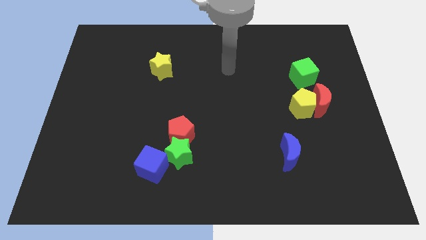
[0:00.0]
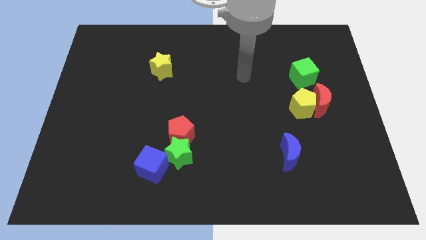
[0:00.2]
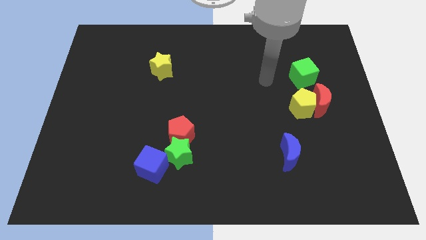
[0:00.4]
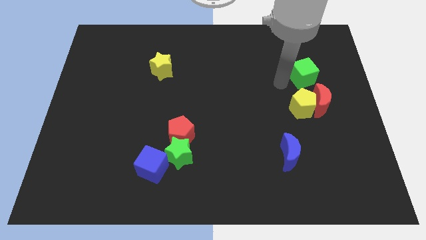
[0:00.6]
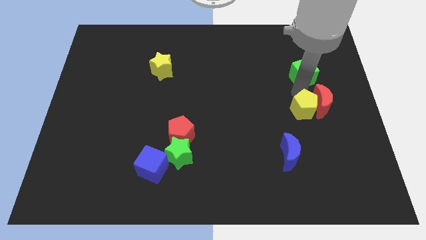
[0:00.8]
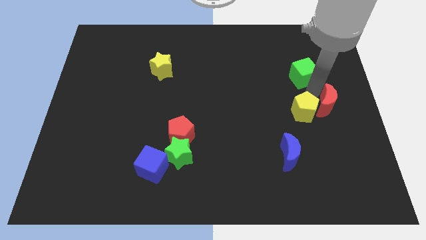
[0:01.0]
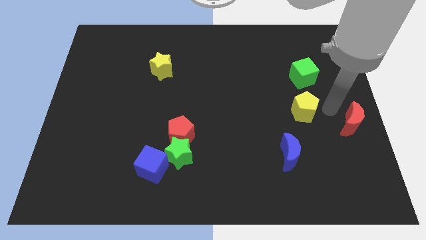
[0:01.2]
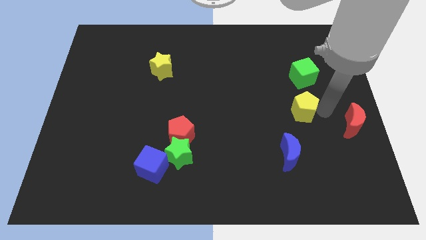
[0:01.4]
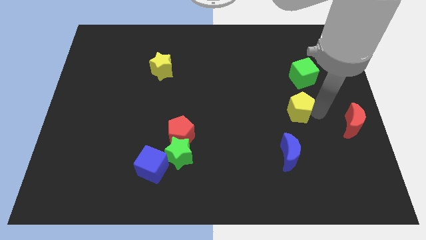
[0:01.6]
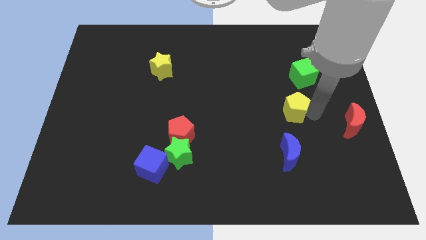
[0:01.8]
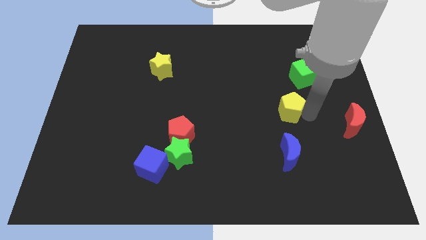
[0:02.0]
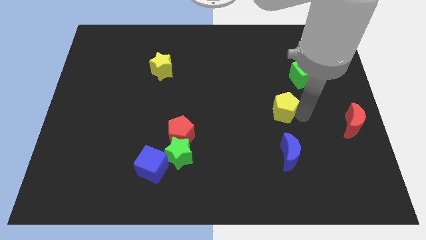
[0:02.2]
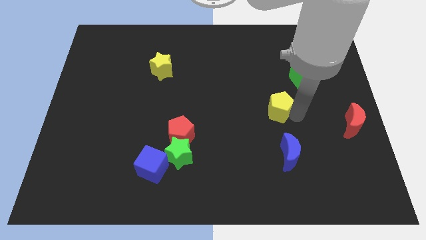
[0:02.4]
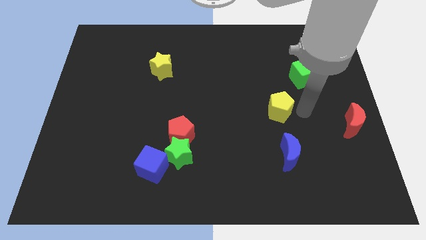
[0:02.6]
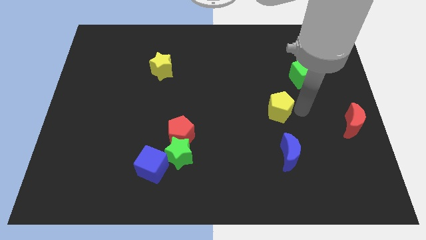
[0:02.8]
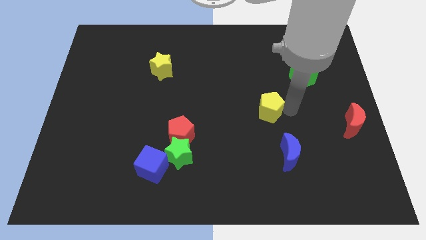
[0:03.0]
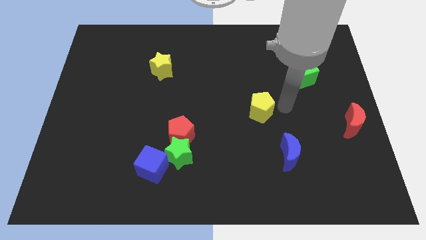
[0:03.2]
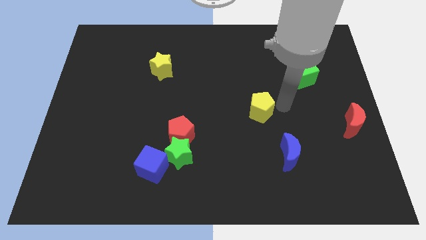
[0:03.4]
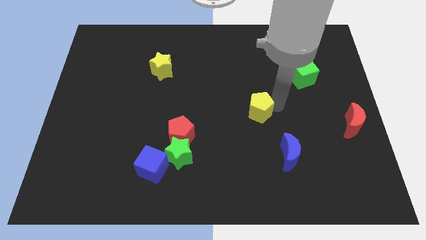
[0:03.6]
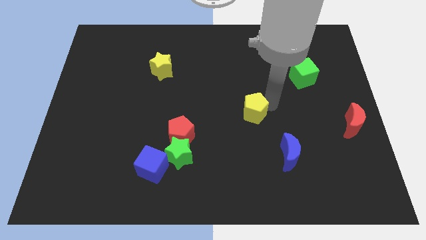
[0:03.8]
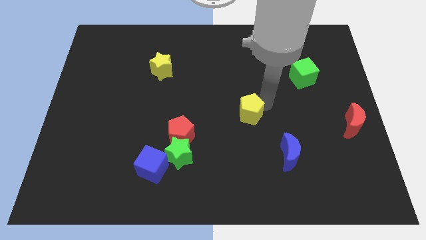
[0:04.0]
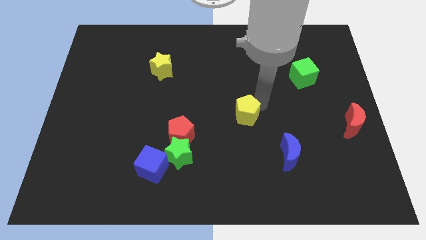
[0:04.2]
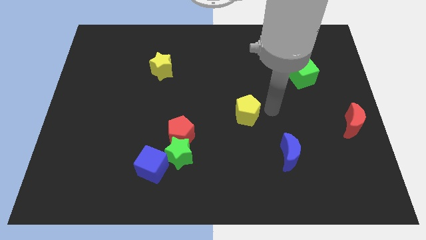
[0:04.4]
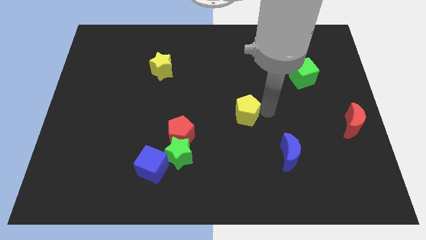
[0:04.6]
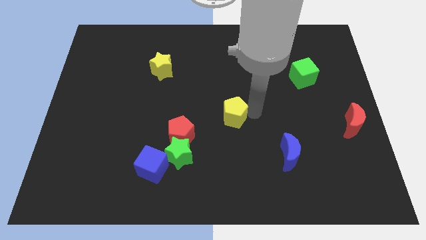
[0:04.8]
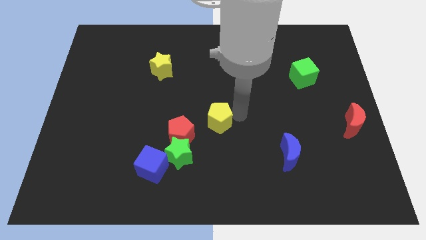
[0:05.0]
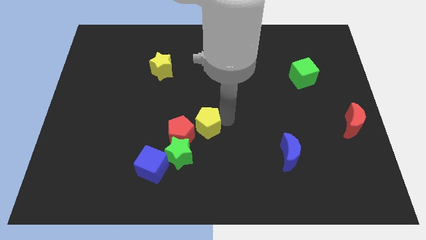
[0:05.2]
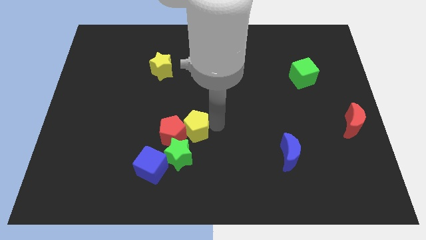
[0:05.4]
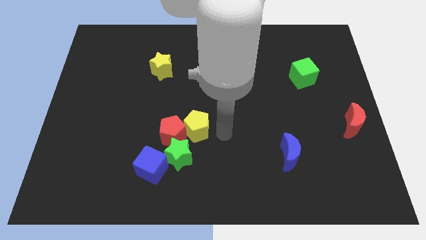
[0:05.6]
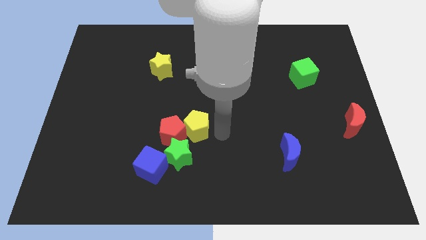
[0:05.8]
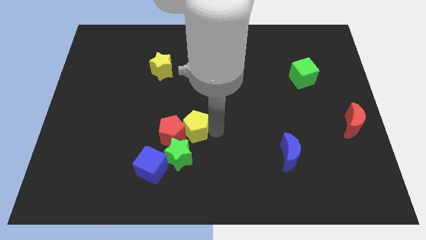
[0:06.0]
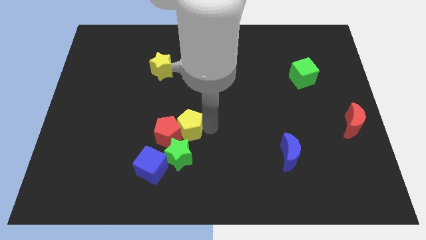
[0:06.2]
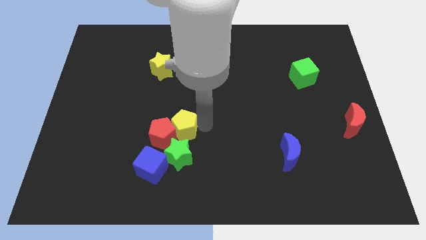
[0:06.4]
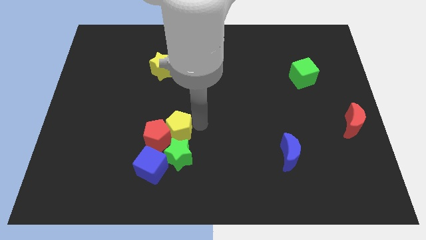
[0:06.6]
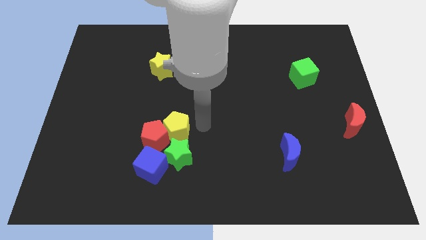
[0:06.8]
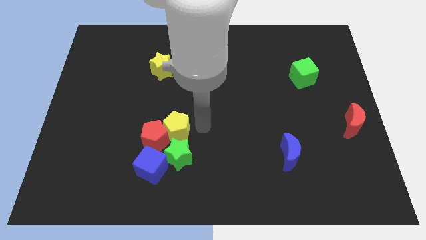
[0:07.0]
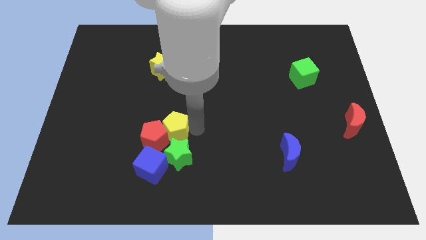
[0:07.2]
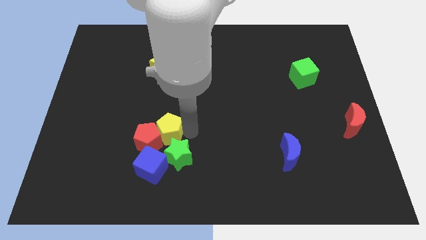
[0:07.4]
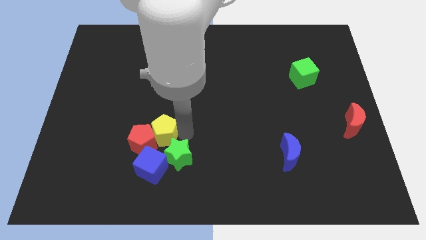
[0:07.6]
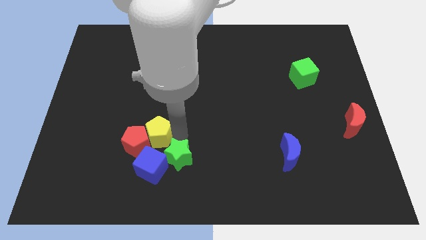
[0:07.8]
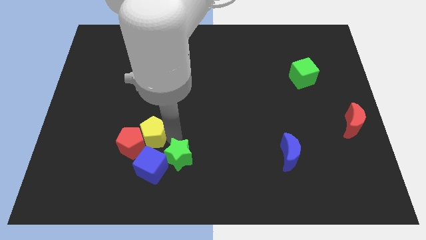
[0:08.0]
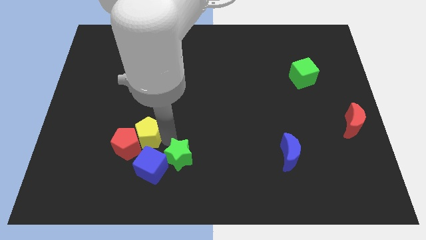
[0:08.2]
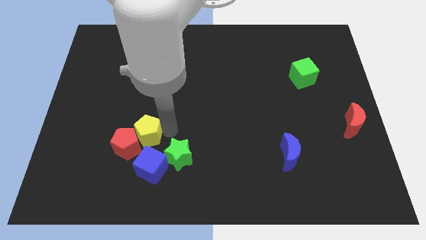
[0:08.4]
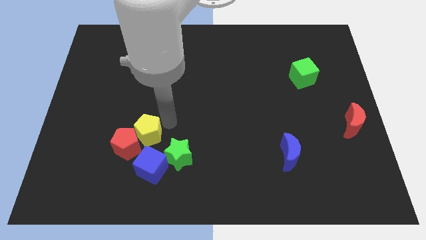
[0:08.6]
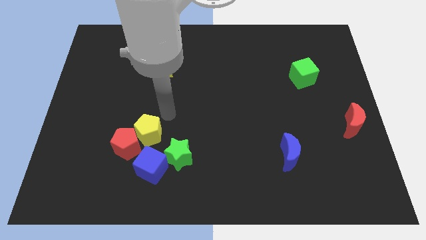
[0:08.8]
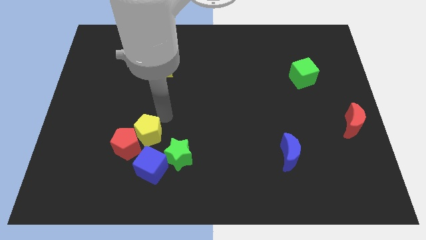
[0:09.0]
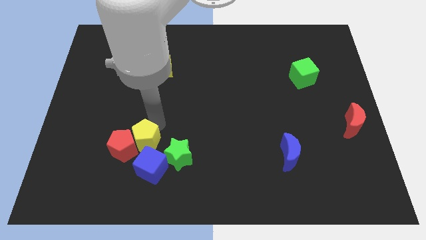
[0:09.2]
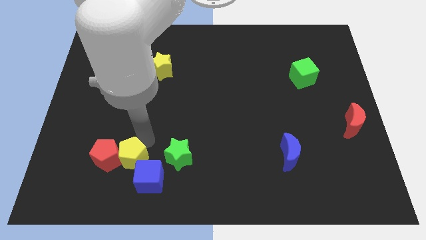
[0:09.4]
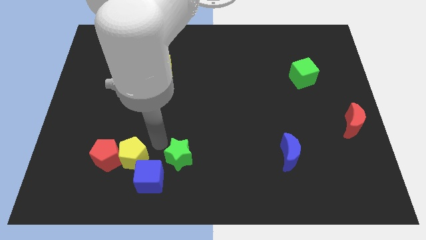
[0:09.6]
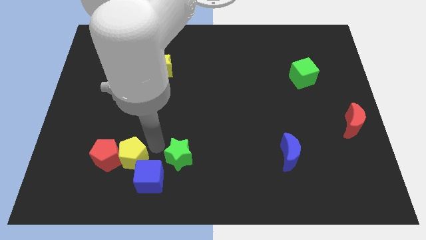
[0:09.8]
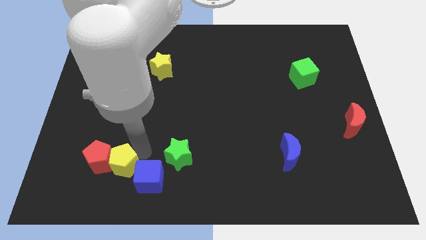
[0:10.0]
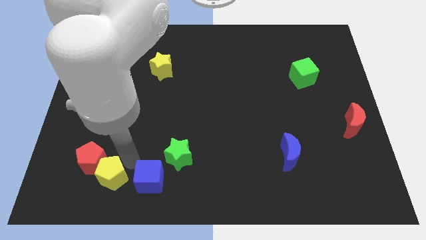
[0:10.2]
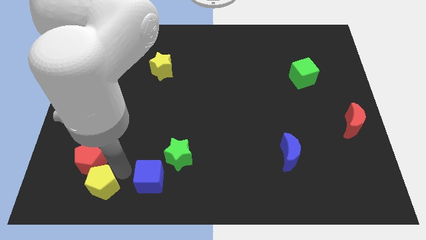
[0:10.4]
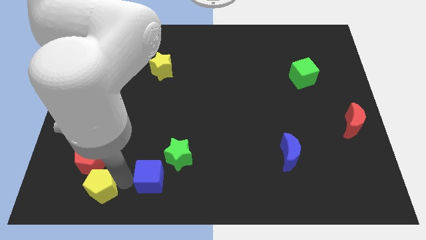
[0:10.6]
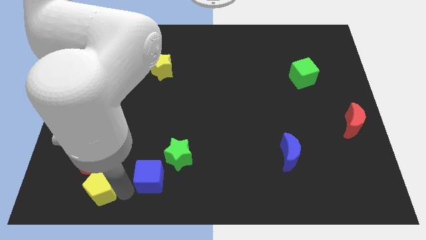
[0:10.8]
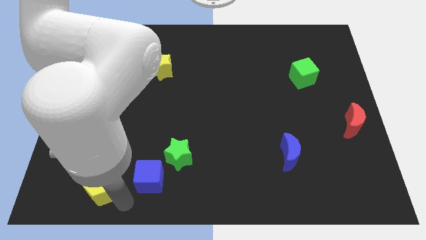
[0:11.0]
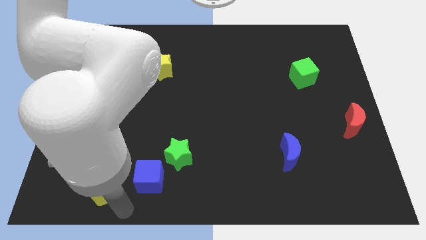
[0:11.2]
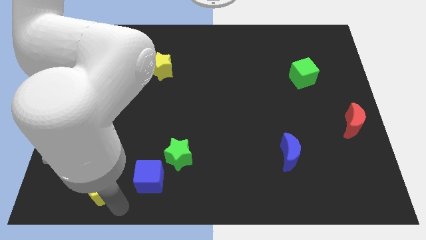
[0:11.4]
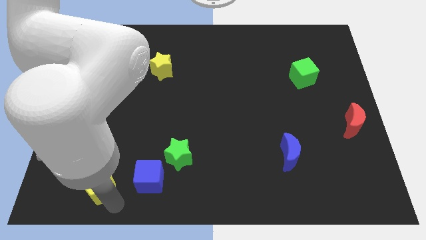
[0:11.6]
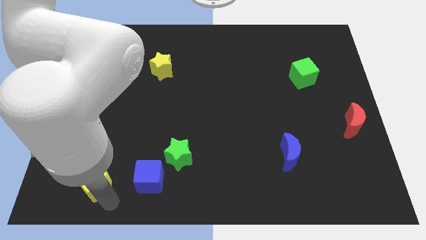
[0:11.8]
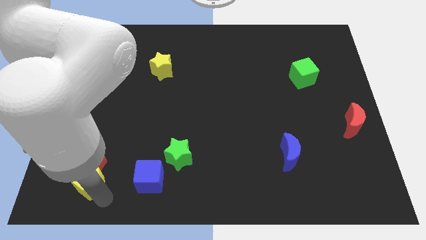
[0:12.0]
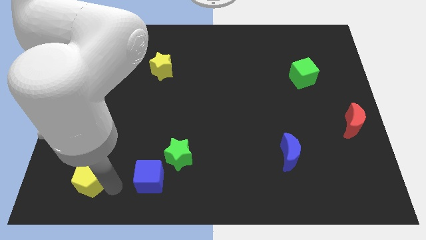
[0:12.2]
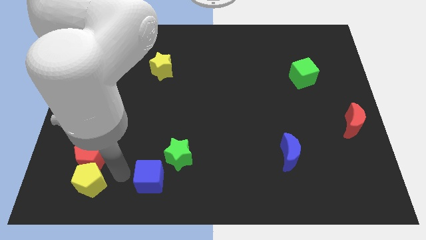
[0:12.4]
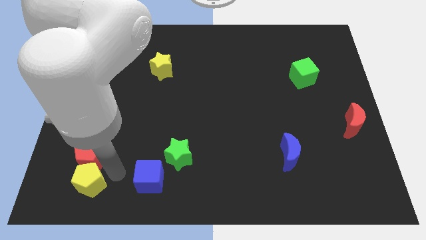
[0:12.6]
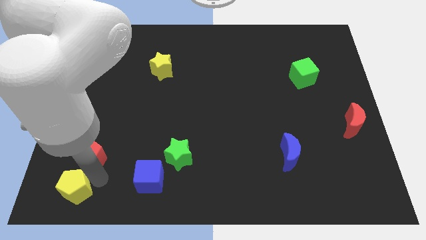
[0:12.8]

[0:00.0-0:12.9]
slide the yellow pentagon to the lower left corner
